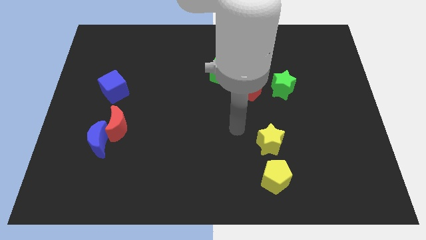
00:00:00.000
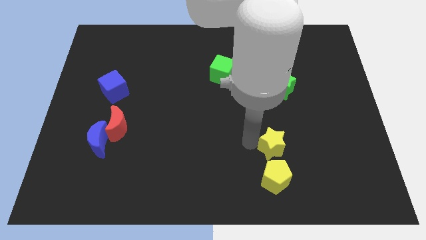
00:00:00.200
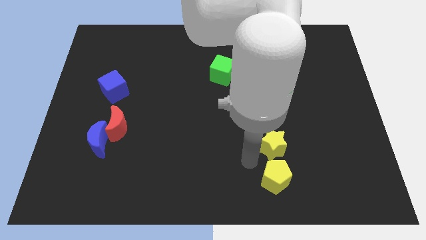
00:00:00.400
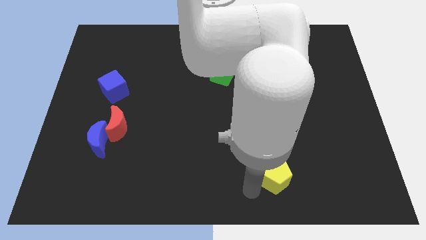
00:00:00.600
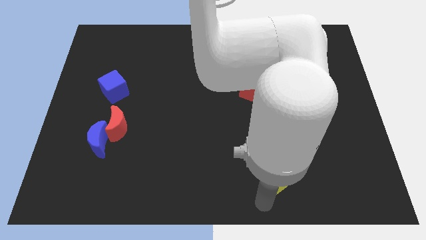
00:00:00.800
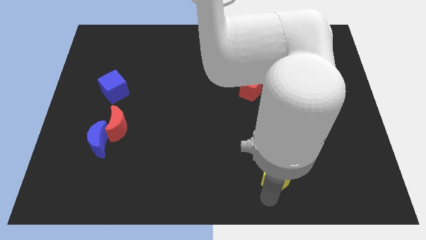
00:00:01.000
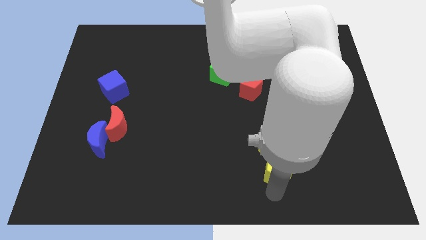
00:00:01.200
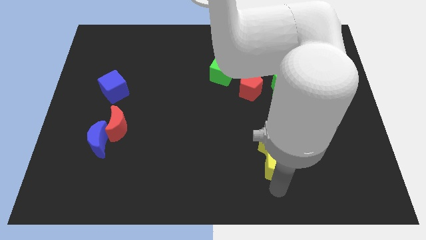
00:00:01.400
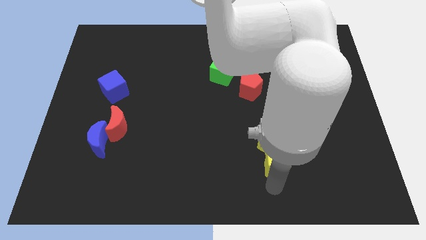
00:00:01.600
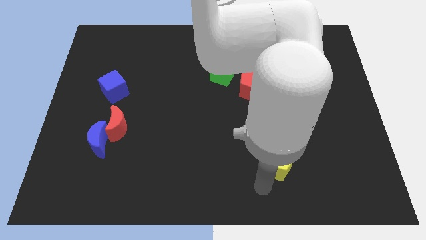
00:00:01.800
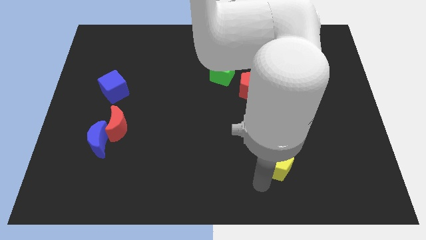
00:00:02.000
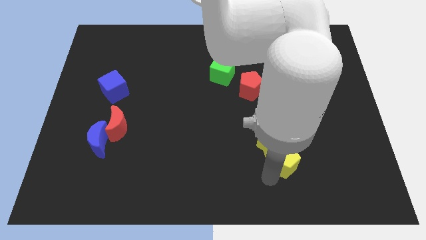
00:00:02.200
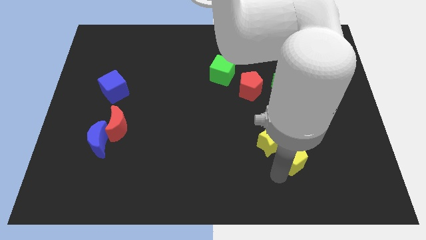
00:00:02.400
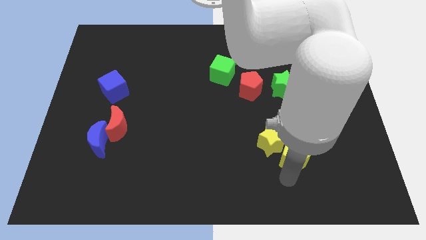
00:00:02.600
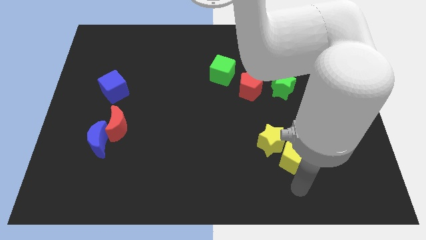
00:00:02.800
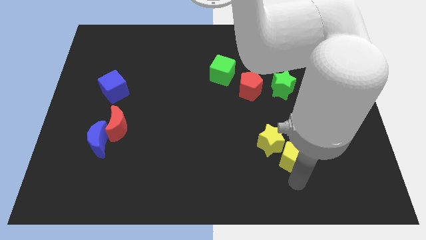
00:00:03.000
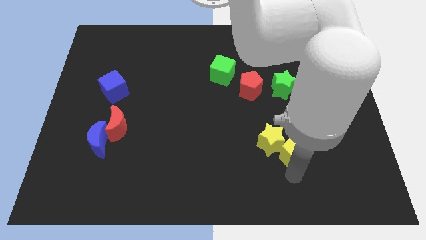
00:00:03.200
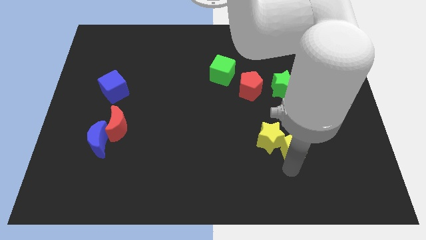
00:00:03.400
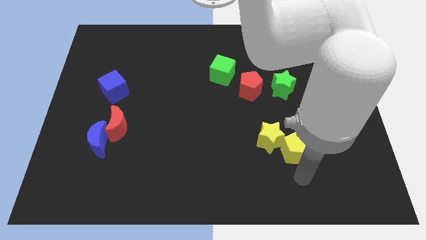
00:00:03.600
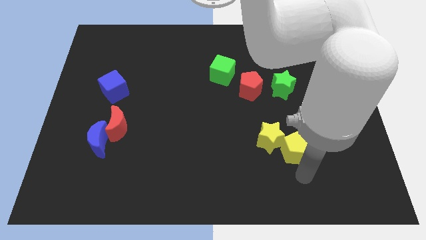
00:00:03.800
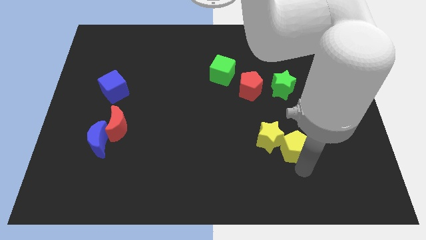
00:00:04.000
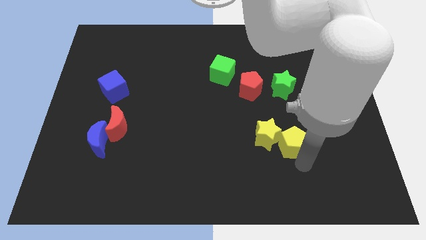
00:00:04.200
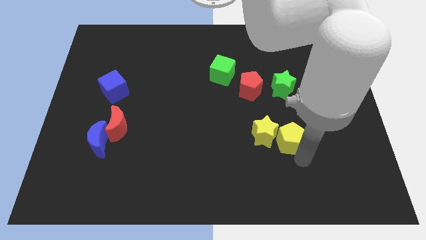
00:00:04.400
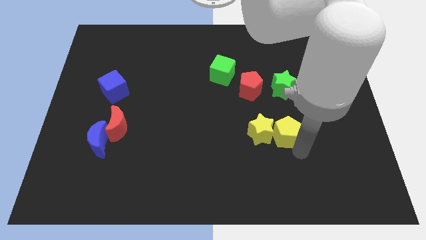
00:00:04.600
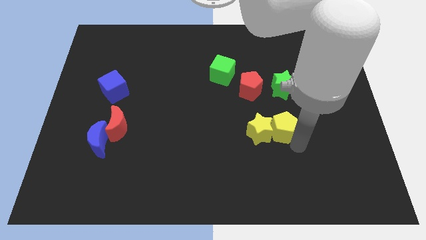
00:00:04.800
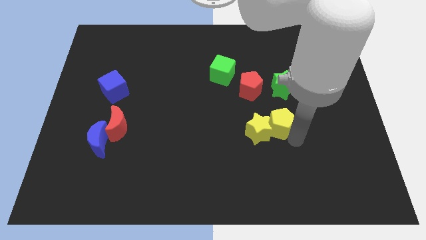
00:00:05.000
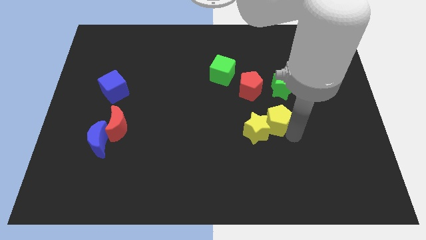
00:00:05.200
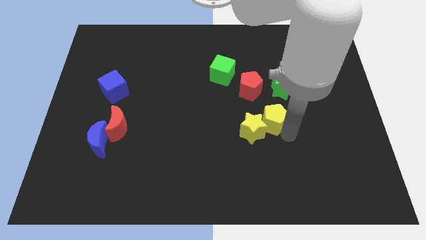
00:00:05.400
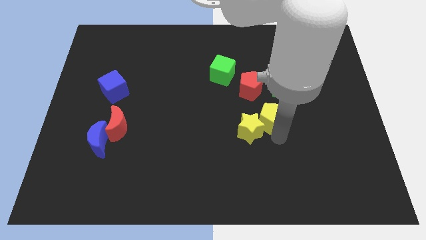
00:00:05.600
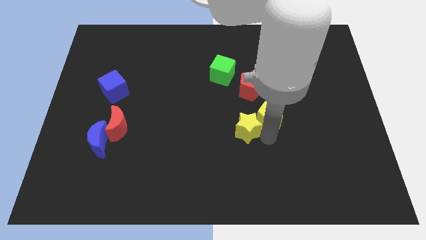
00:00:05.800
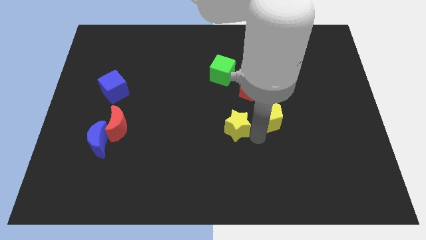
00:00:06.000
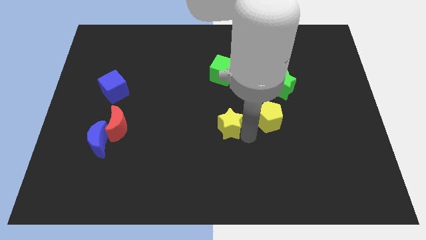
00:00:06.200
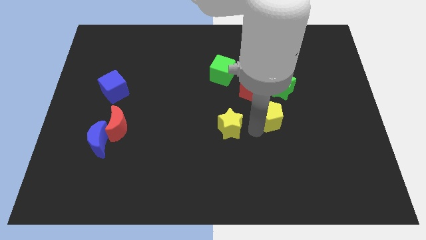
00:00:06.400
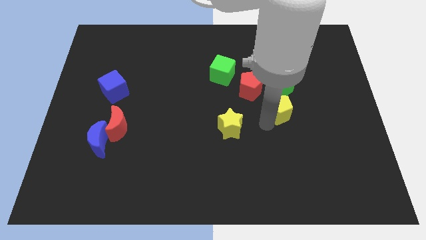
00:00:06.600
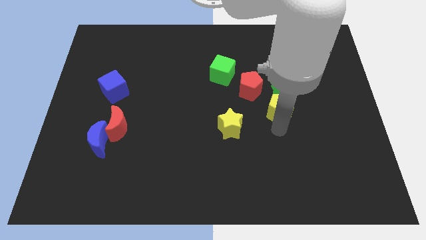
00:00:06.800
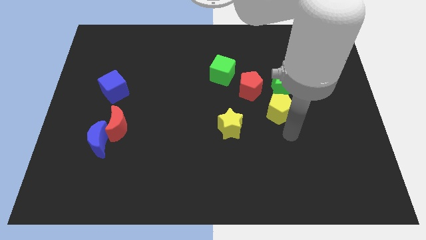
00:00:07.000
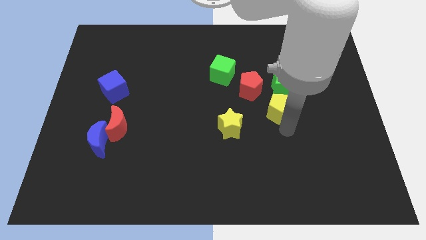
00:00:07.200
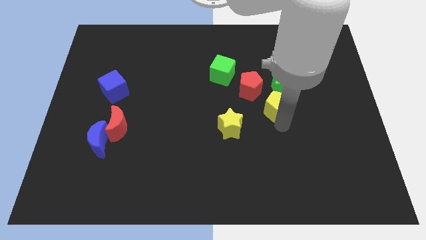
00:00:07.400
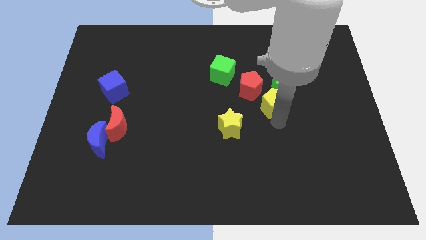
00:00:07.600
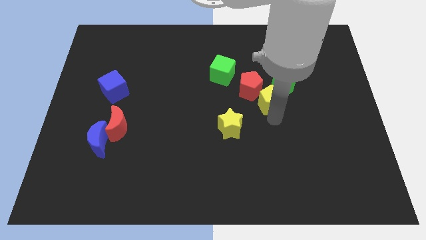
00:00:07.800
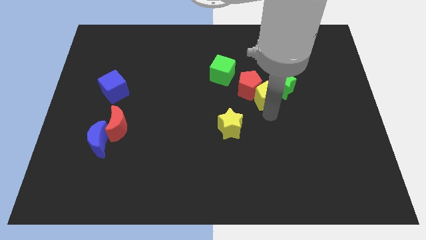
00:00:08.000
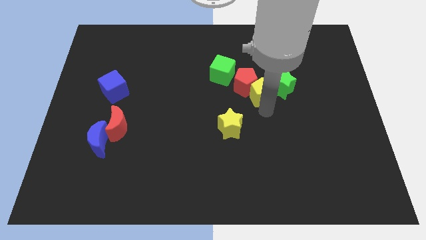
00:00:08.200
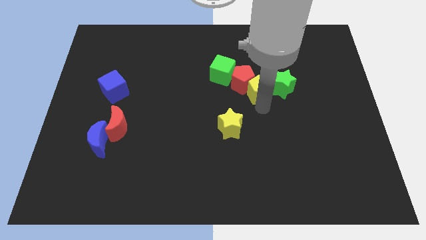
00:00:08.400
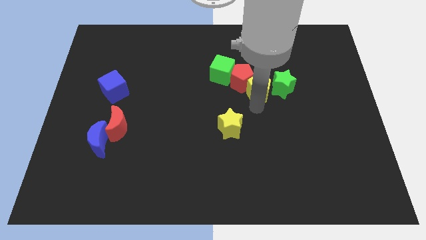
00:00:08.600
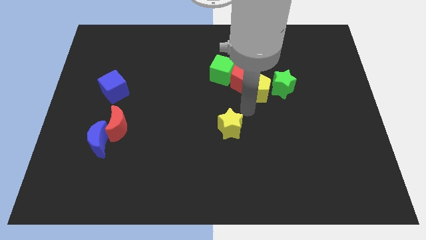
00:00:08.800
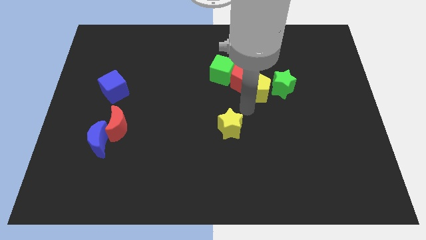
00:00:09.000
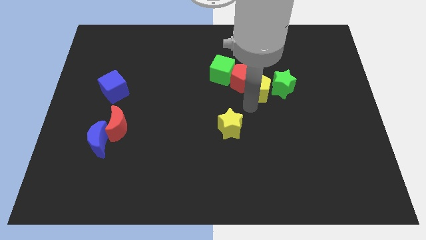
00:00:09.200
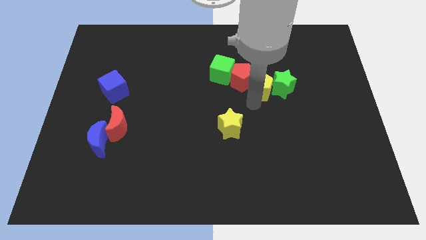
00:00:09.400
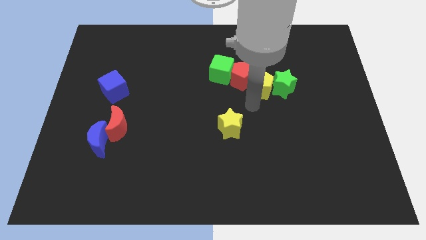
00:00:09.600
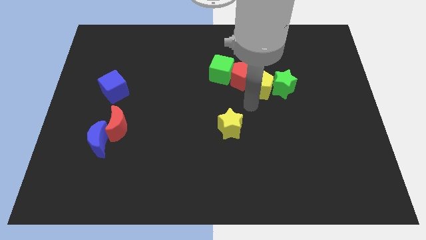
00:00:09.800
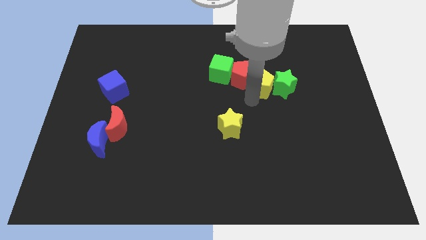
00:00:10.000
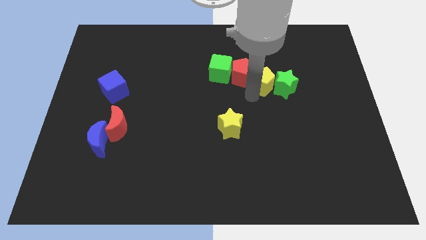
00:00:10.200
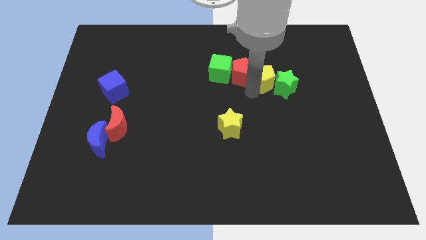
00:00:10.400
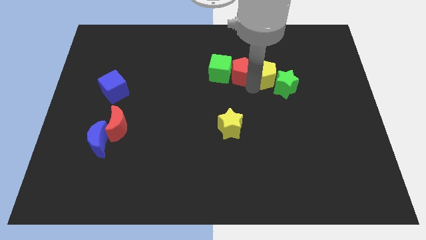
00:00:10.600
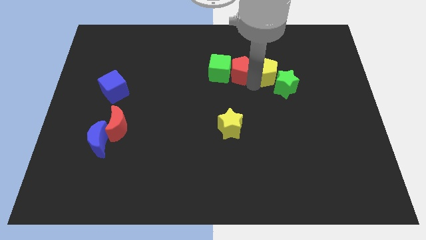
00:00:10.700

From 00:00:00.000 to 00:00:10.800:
slide the yellow pentagon to the top side of the green star

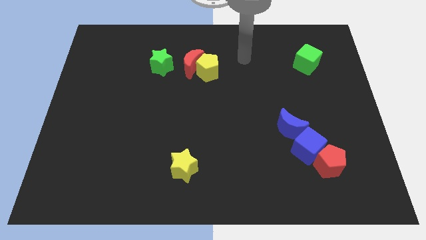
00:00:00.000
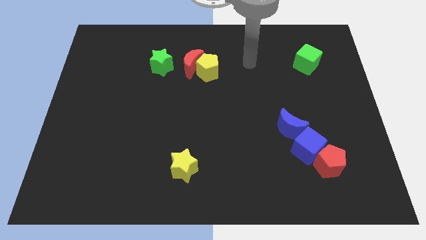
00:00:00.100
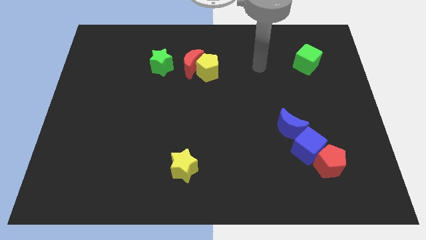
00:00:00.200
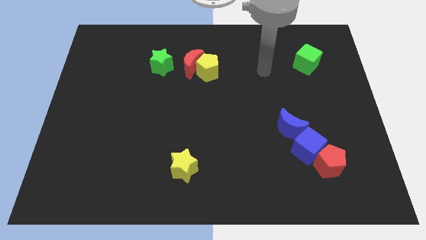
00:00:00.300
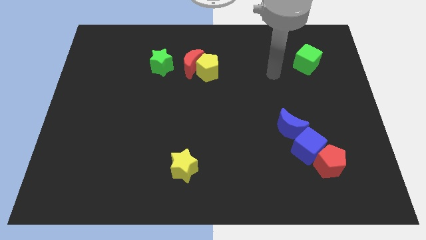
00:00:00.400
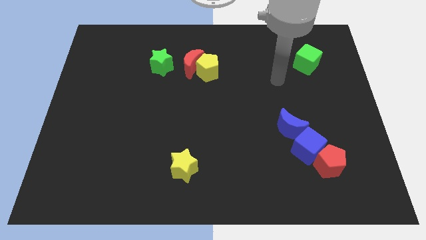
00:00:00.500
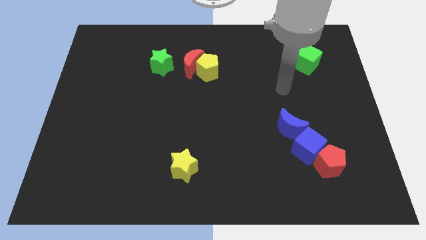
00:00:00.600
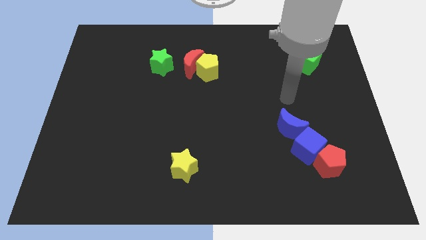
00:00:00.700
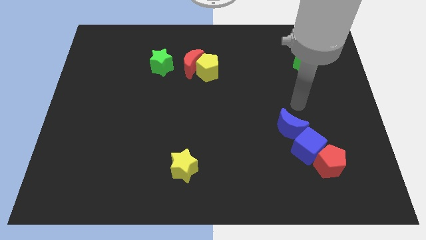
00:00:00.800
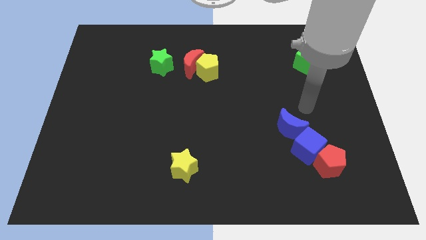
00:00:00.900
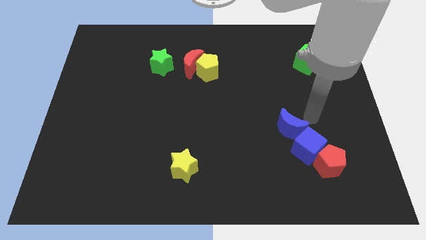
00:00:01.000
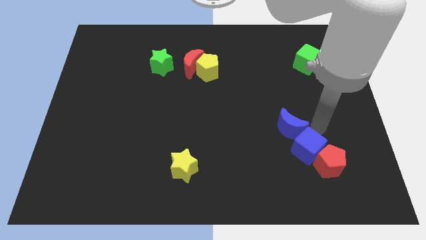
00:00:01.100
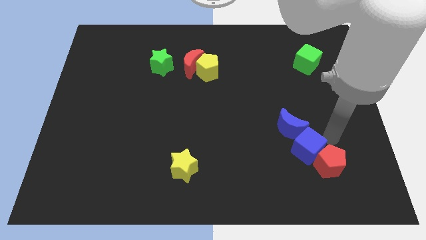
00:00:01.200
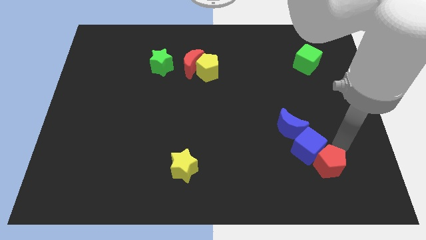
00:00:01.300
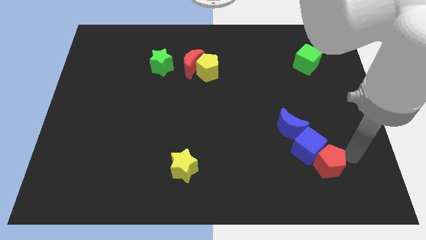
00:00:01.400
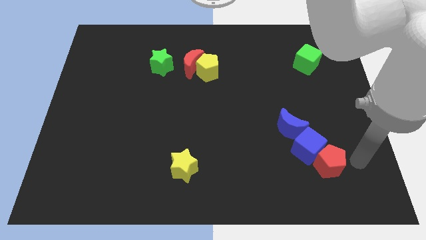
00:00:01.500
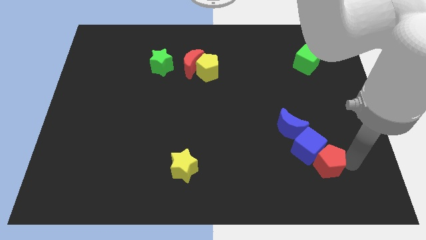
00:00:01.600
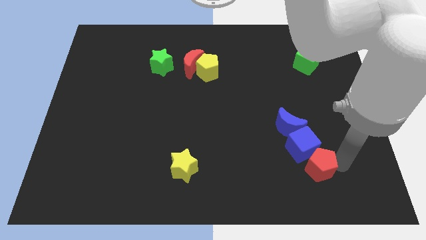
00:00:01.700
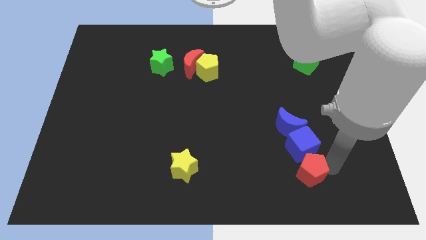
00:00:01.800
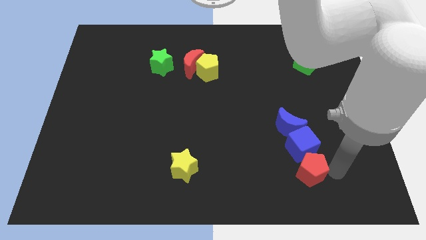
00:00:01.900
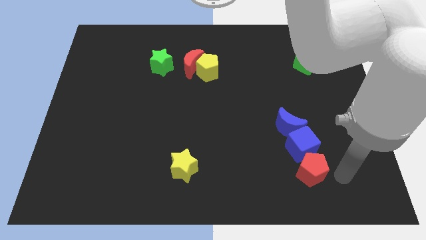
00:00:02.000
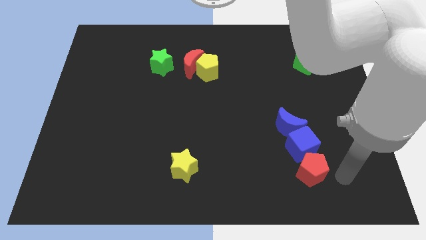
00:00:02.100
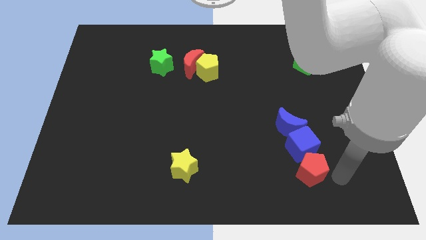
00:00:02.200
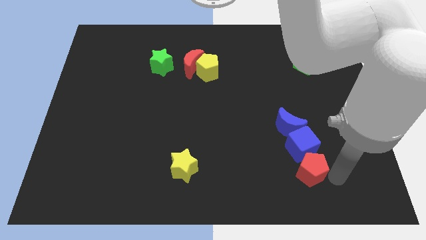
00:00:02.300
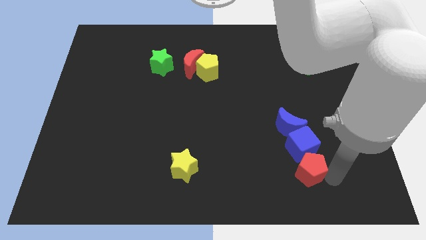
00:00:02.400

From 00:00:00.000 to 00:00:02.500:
slide the red pentagon to the bottom left side of the blue cube
